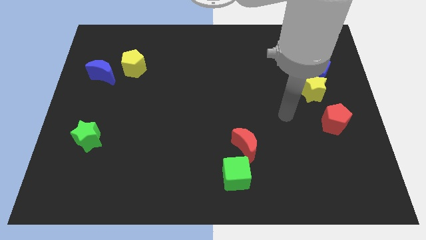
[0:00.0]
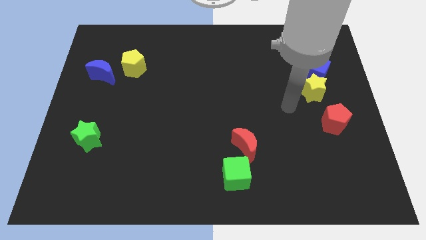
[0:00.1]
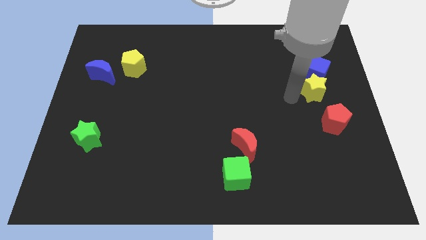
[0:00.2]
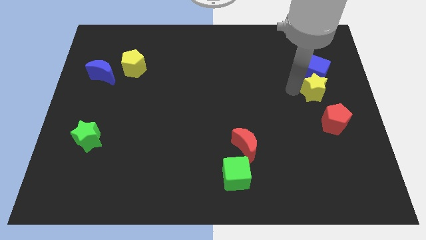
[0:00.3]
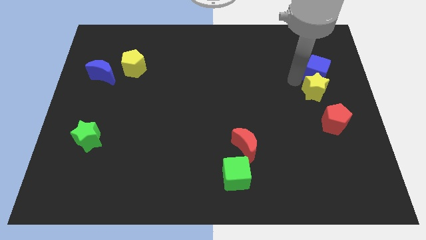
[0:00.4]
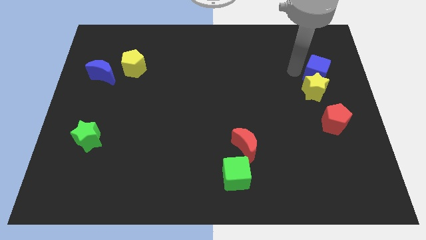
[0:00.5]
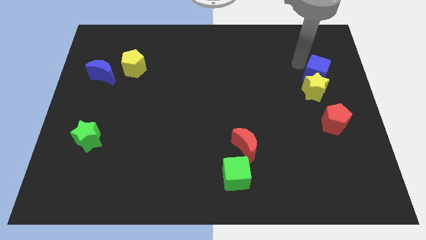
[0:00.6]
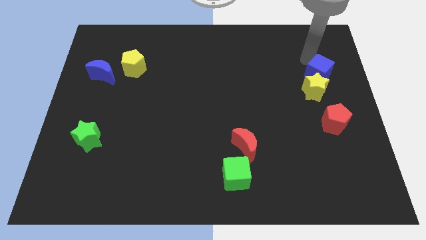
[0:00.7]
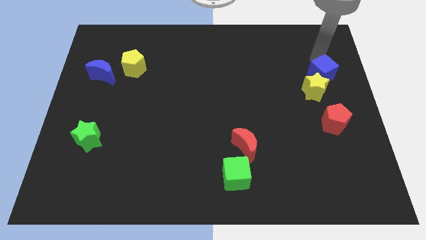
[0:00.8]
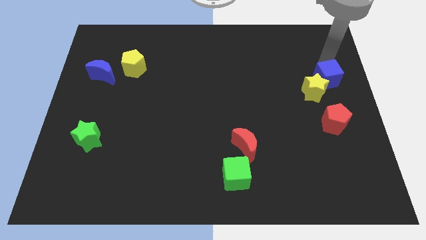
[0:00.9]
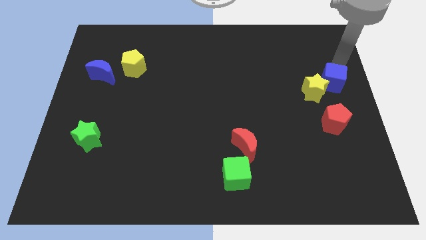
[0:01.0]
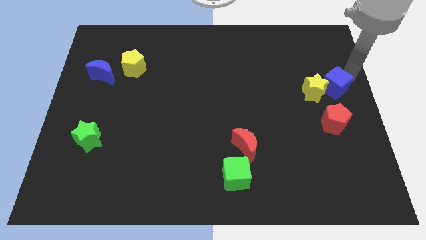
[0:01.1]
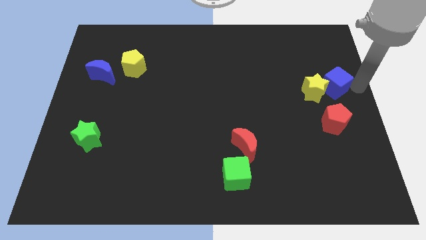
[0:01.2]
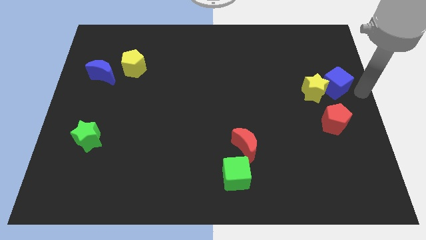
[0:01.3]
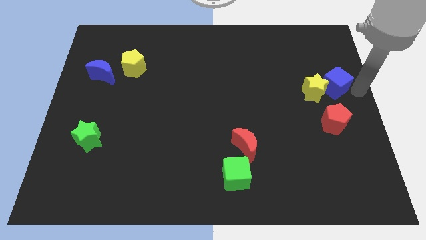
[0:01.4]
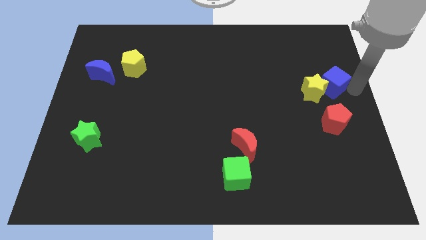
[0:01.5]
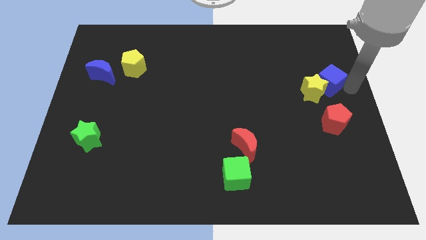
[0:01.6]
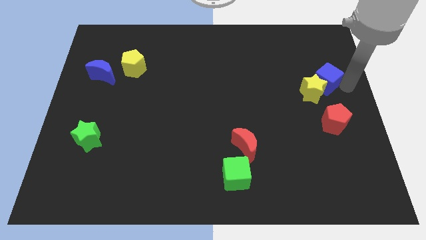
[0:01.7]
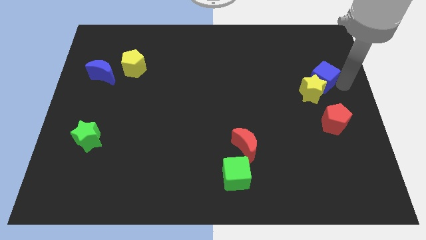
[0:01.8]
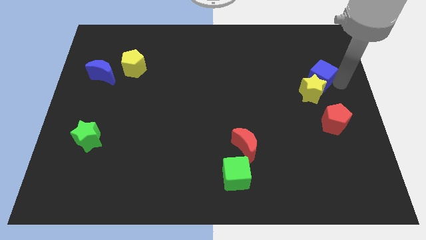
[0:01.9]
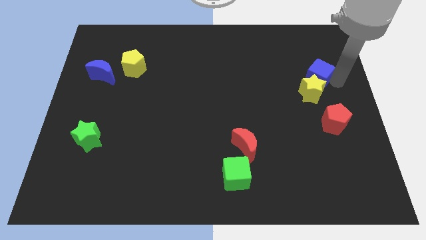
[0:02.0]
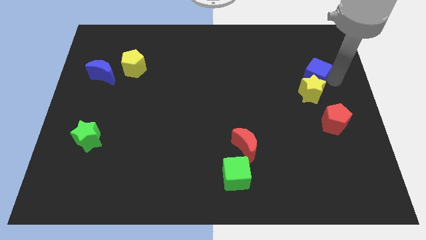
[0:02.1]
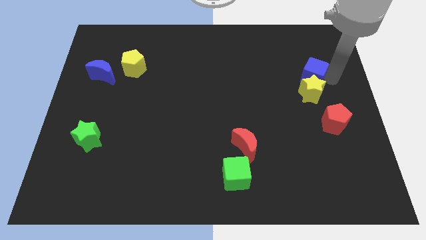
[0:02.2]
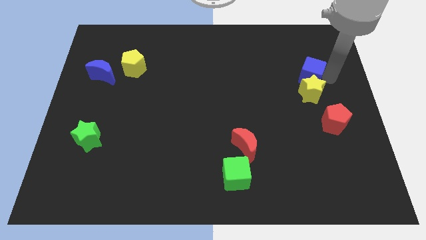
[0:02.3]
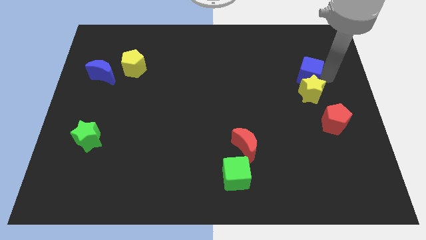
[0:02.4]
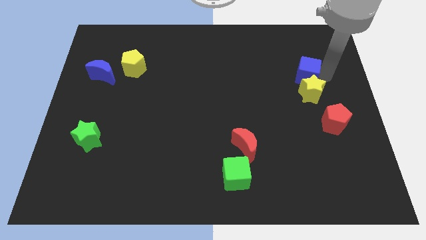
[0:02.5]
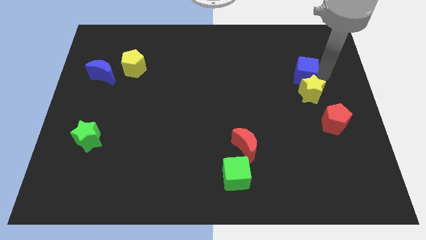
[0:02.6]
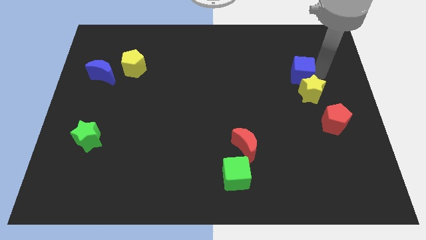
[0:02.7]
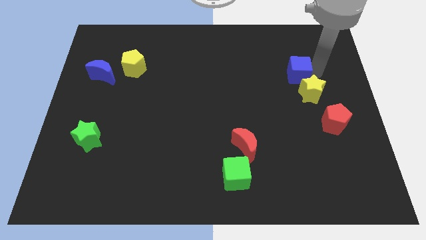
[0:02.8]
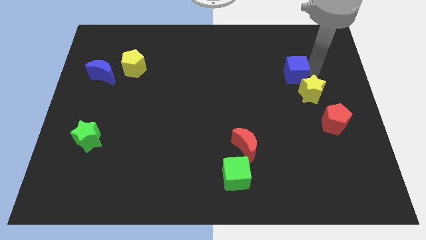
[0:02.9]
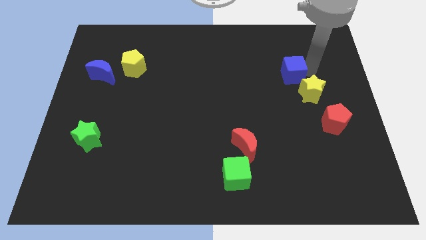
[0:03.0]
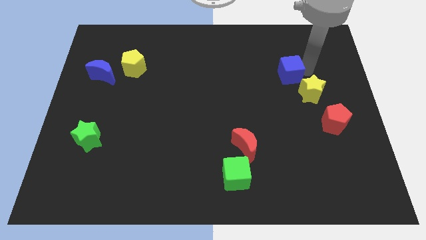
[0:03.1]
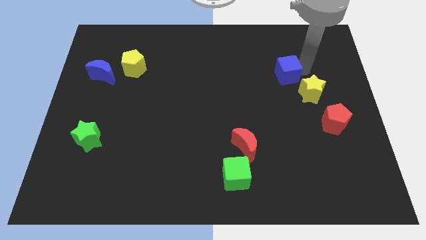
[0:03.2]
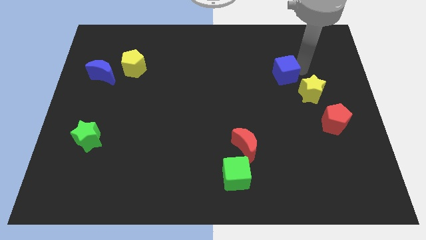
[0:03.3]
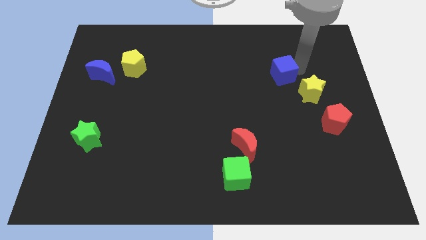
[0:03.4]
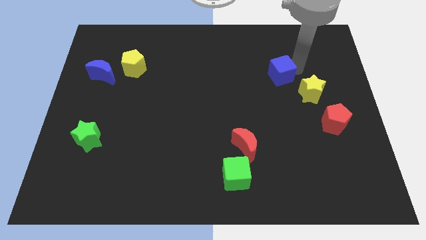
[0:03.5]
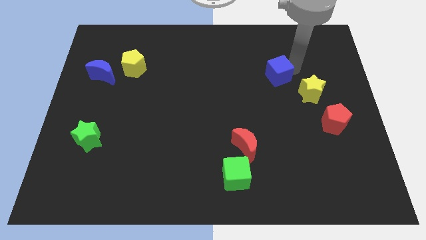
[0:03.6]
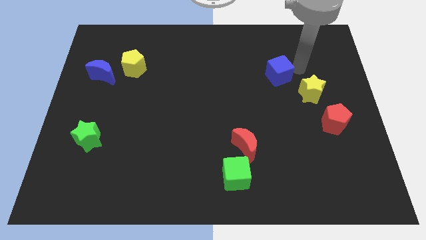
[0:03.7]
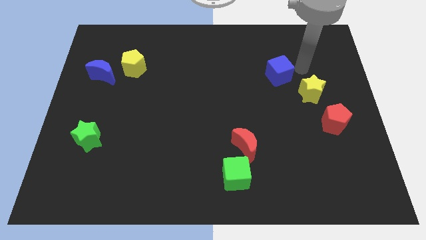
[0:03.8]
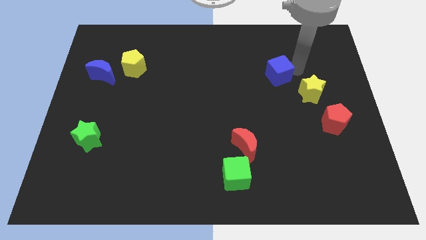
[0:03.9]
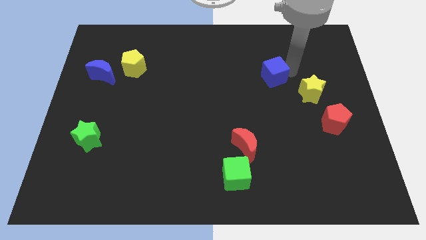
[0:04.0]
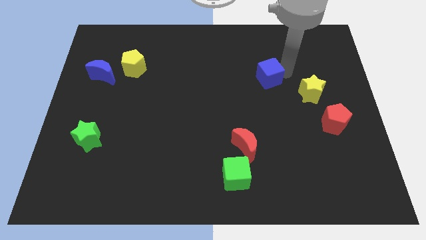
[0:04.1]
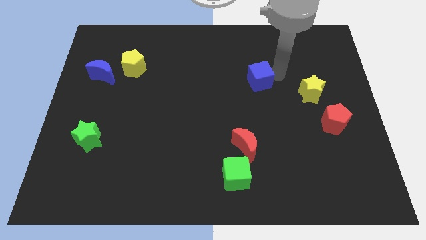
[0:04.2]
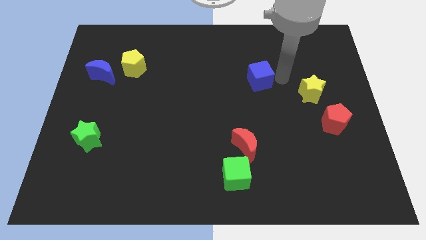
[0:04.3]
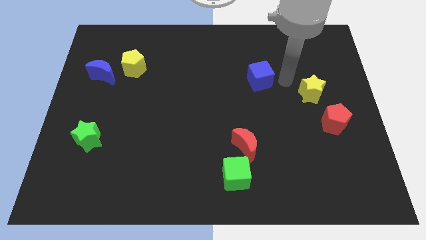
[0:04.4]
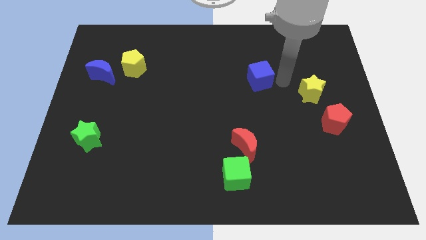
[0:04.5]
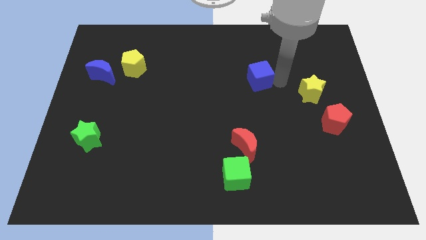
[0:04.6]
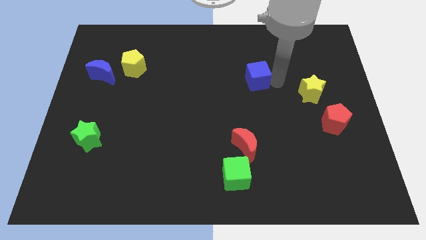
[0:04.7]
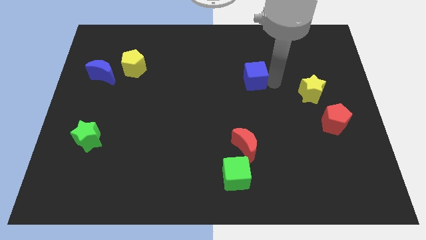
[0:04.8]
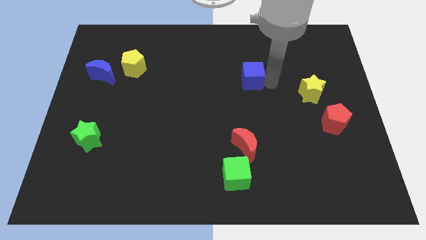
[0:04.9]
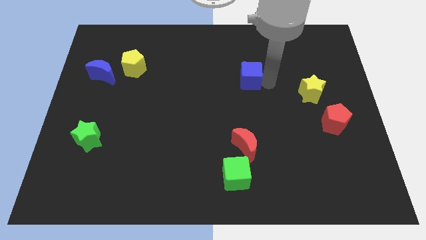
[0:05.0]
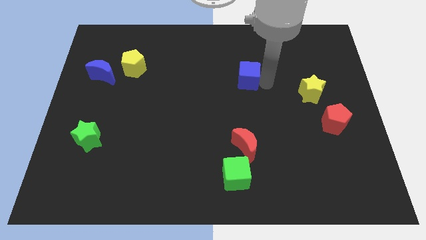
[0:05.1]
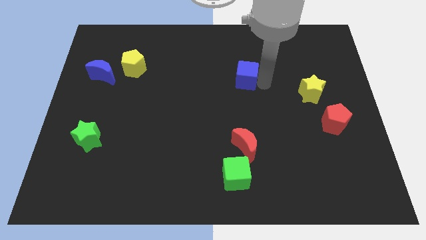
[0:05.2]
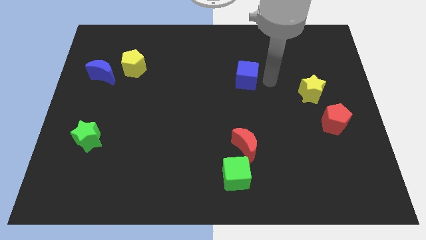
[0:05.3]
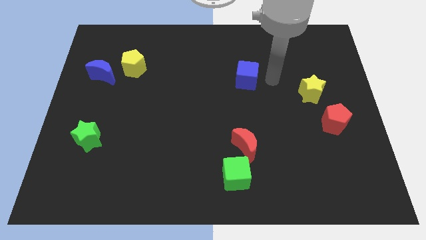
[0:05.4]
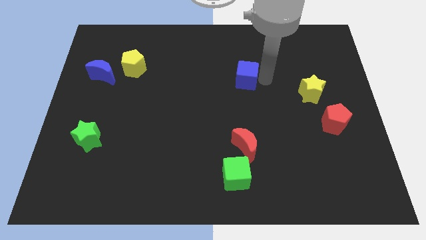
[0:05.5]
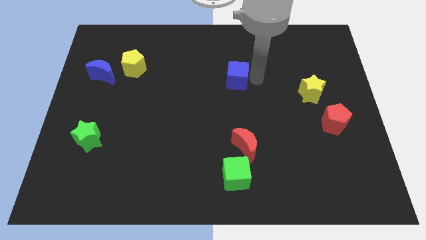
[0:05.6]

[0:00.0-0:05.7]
slide the blue cube to the left

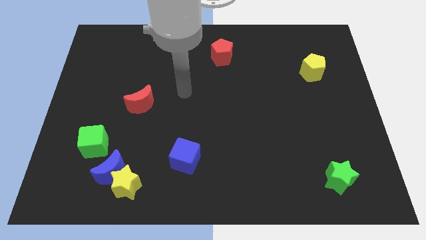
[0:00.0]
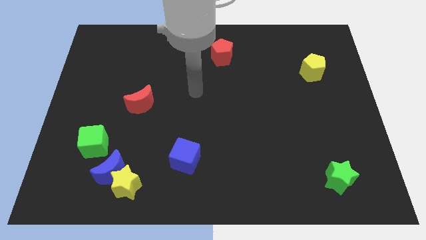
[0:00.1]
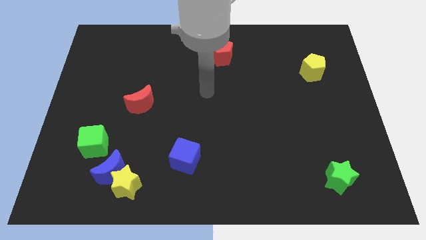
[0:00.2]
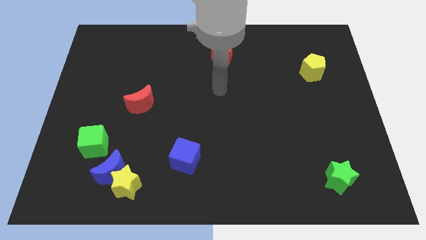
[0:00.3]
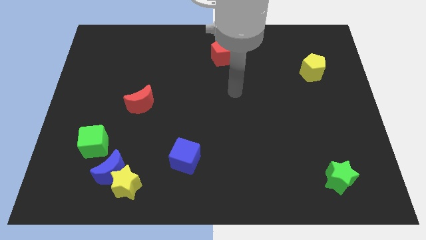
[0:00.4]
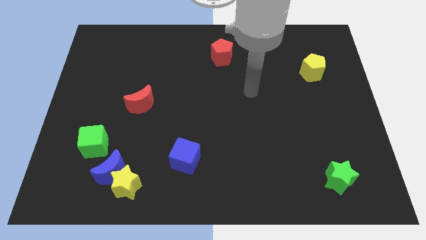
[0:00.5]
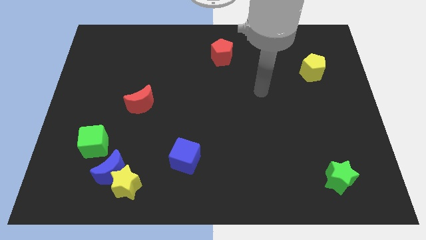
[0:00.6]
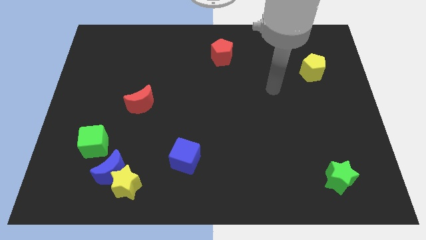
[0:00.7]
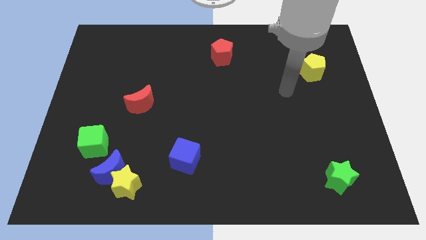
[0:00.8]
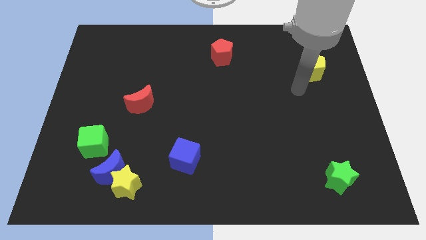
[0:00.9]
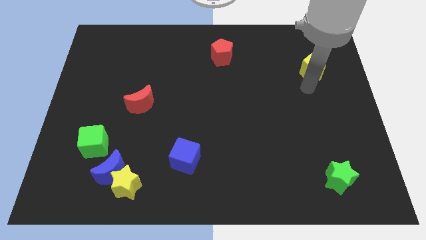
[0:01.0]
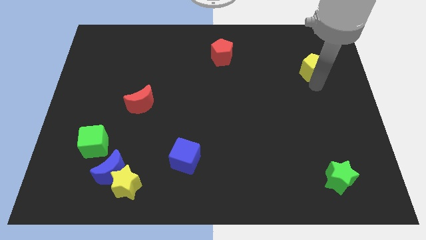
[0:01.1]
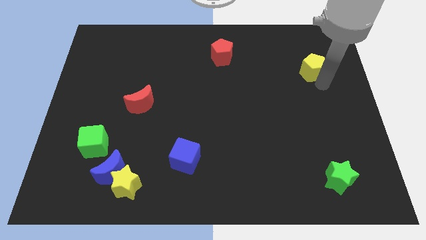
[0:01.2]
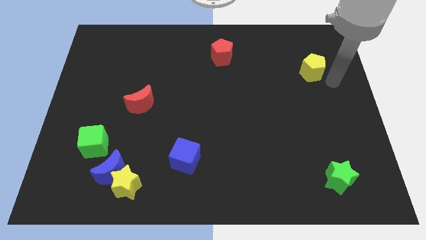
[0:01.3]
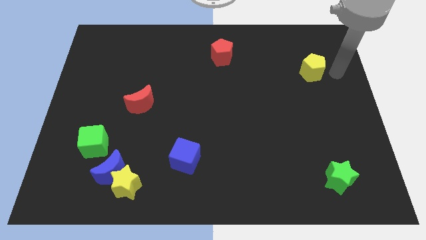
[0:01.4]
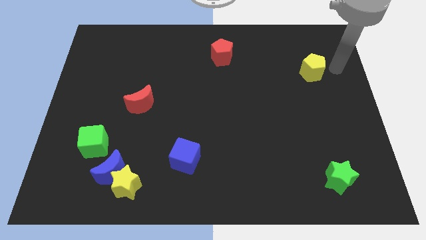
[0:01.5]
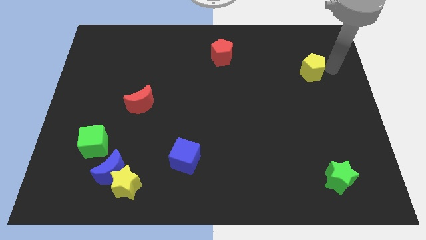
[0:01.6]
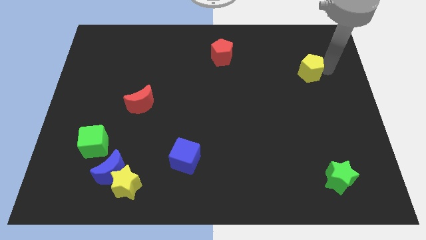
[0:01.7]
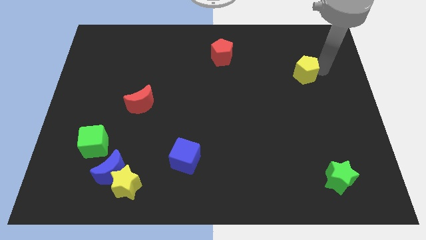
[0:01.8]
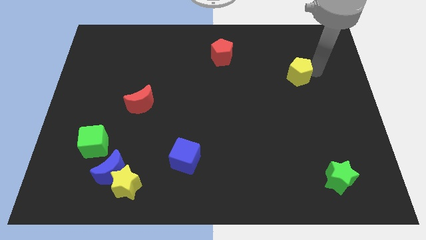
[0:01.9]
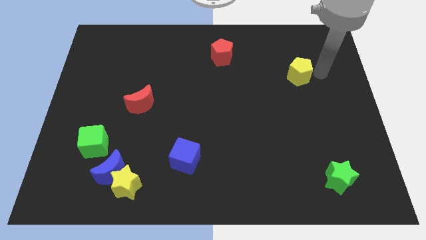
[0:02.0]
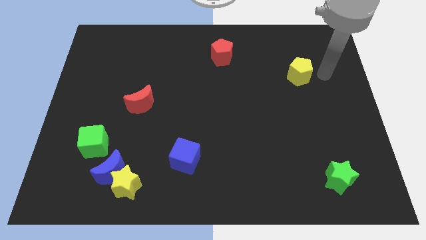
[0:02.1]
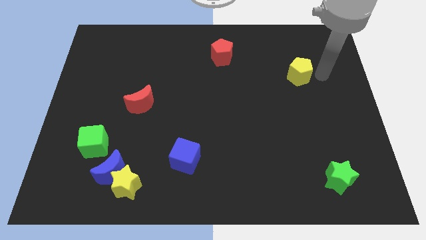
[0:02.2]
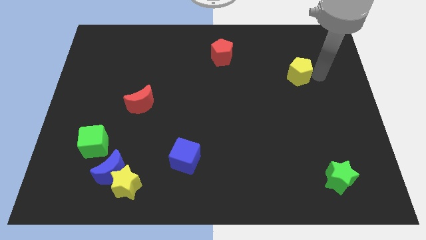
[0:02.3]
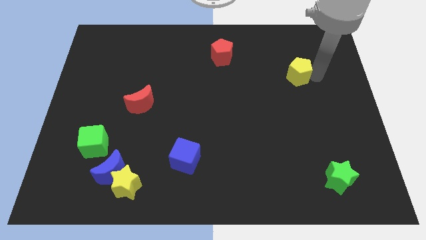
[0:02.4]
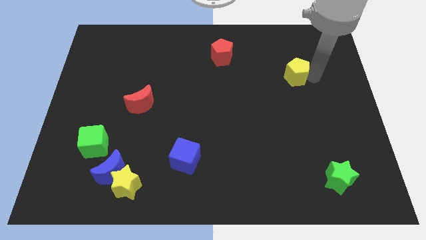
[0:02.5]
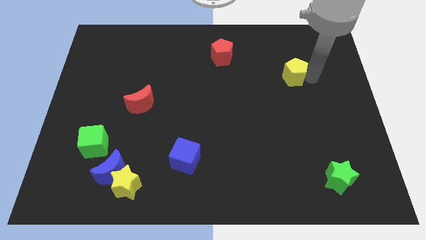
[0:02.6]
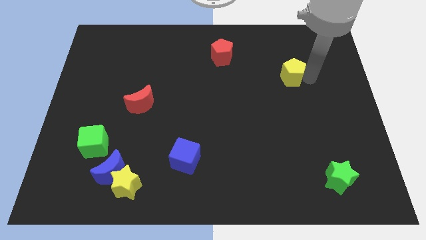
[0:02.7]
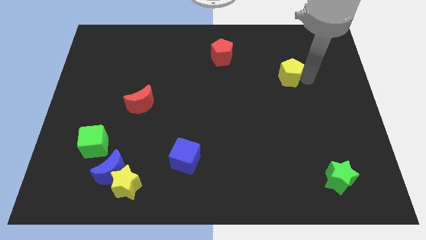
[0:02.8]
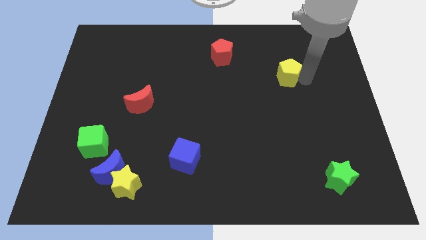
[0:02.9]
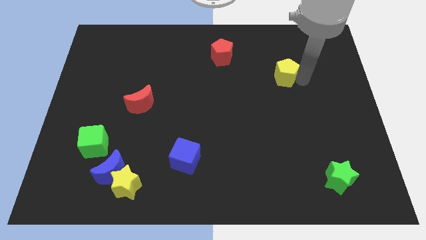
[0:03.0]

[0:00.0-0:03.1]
slightly push the yellow pentagon left
